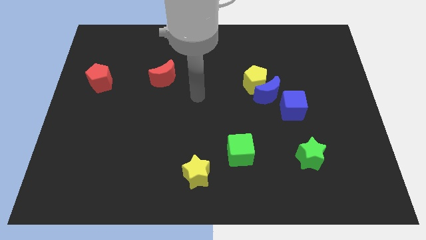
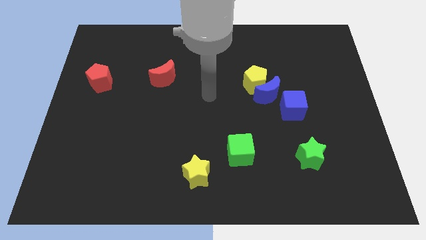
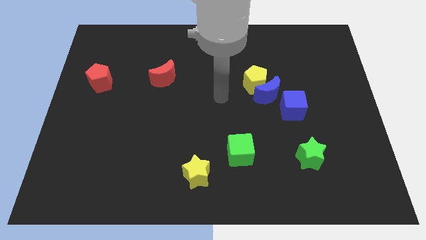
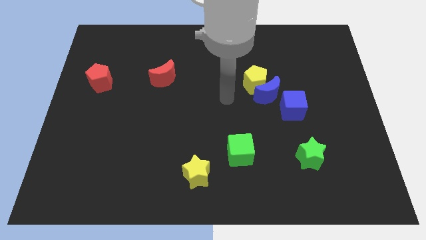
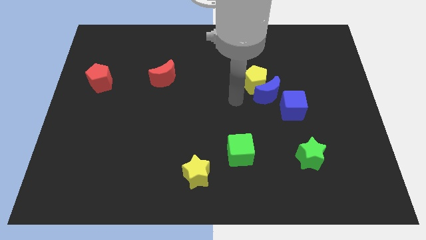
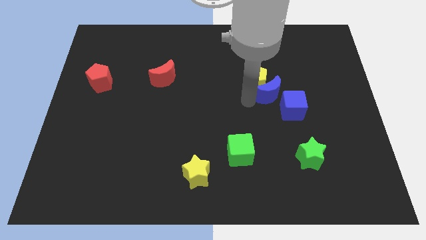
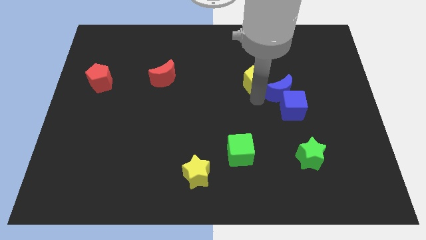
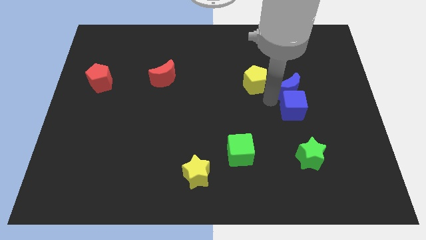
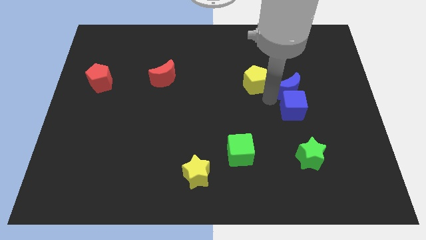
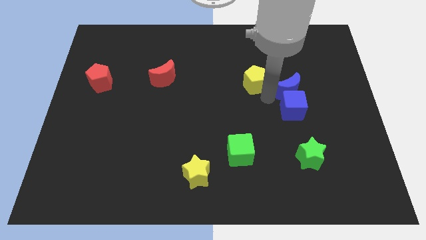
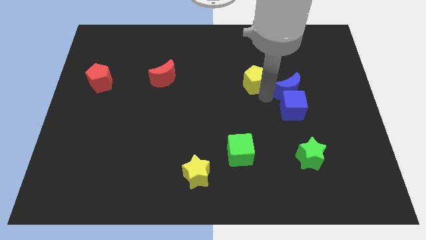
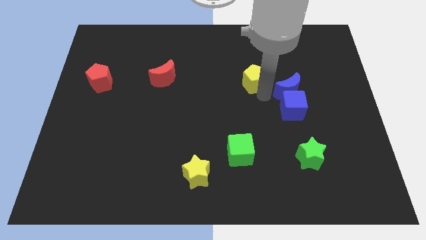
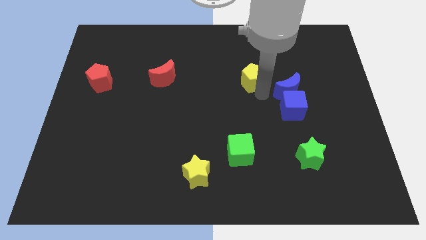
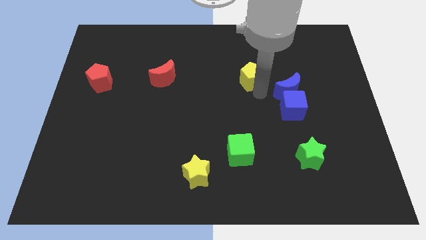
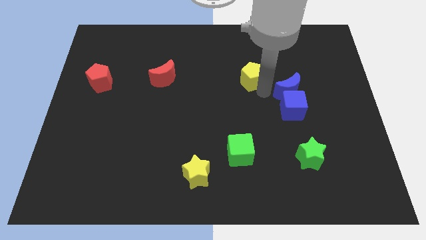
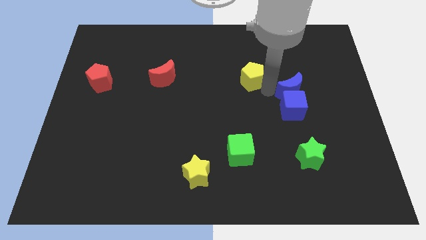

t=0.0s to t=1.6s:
separate the yellow pentagon from the blue moon

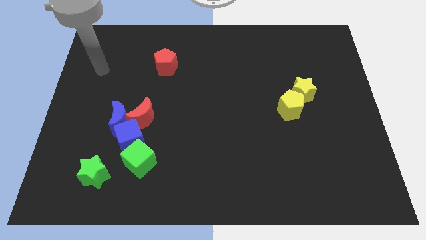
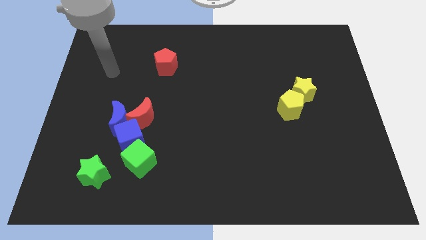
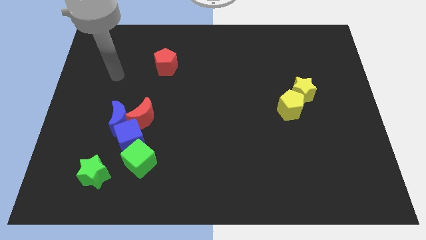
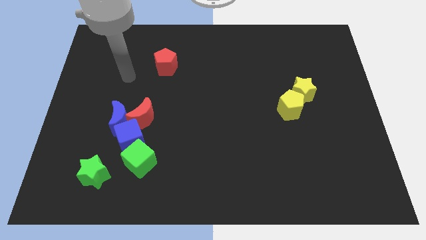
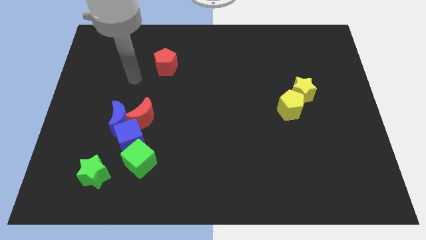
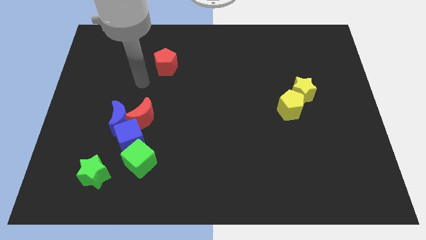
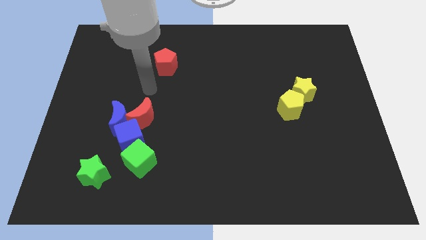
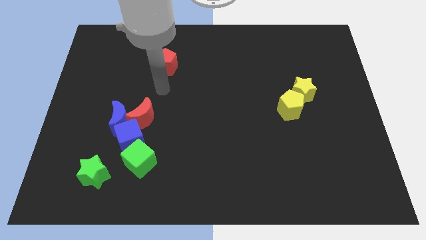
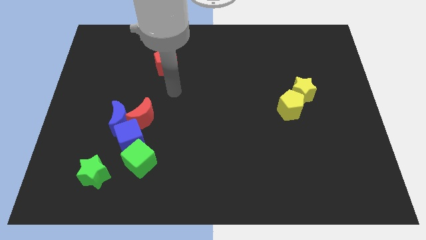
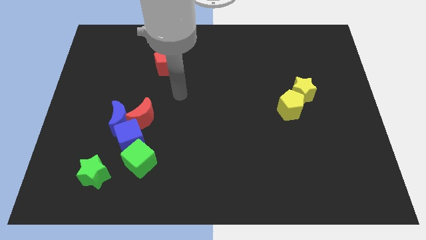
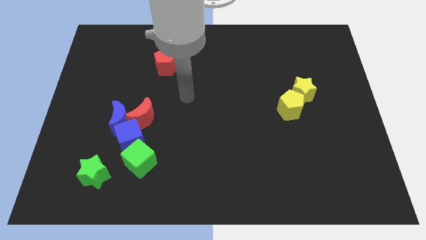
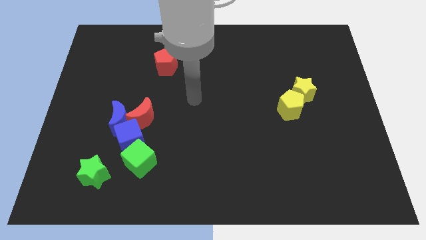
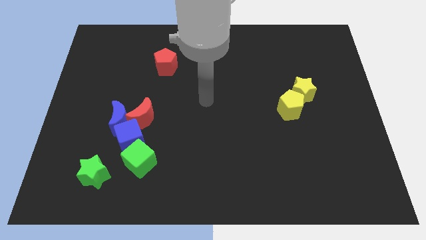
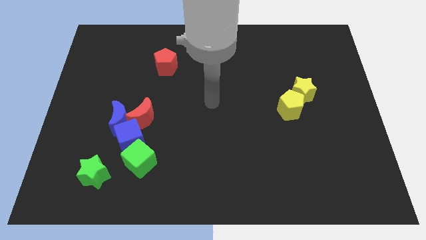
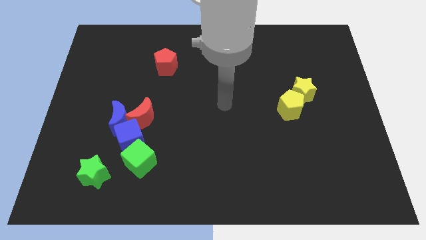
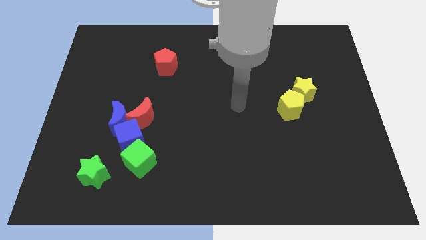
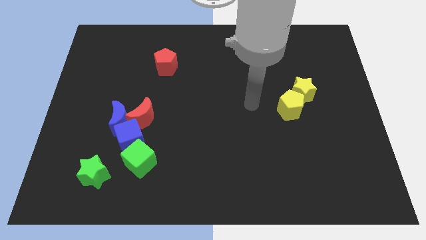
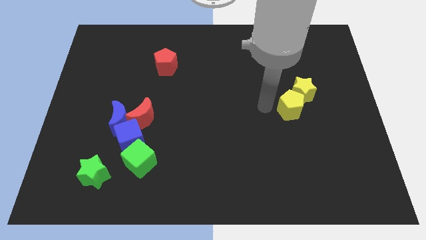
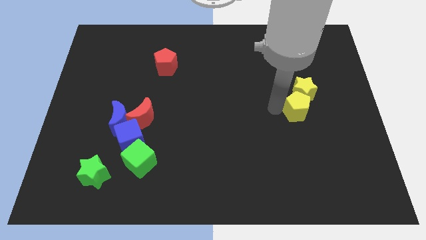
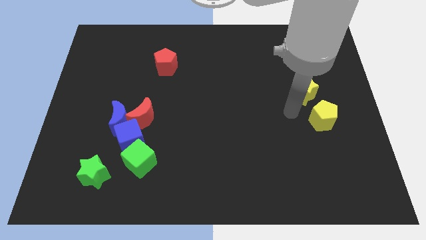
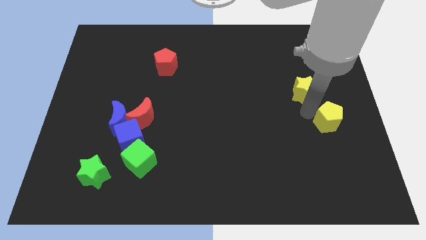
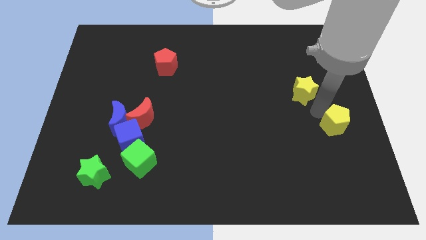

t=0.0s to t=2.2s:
pull the yellow star apart from the yellow pentagon

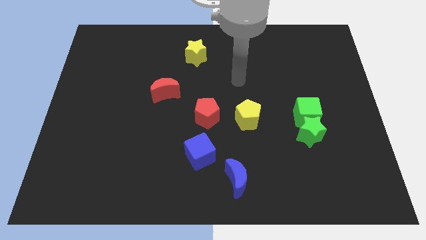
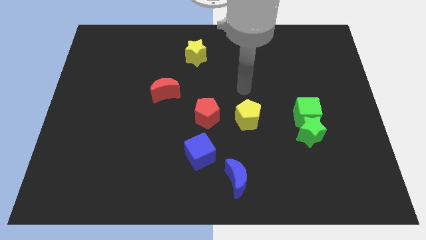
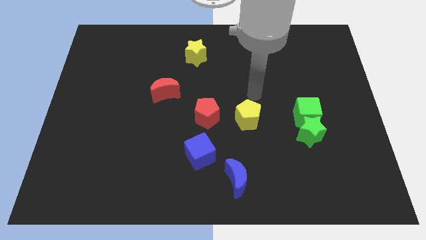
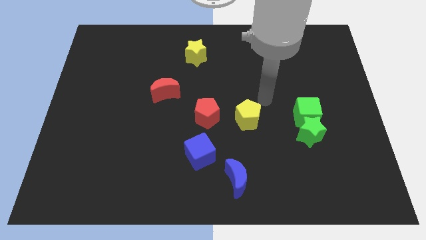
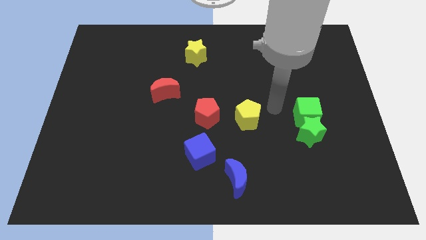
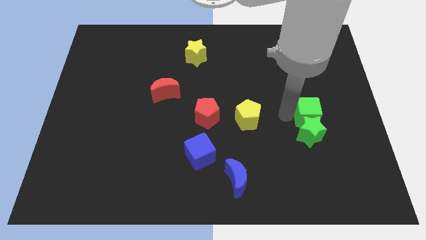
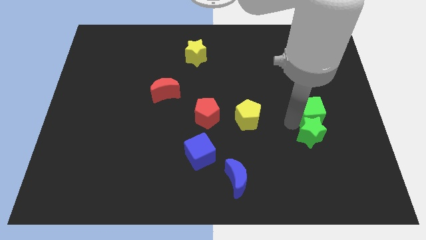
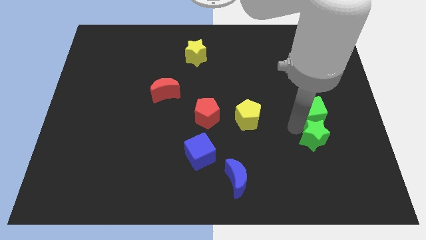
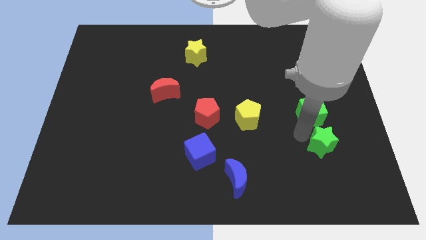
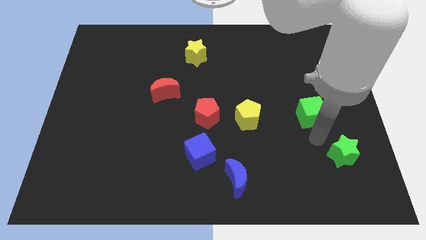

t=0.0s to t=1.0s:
separate the green cube from the green star

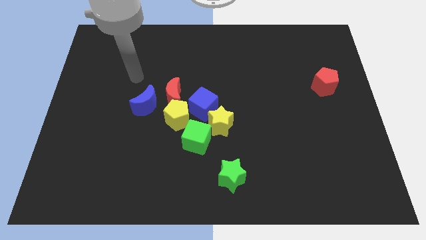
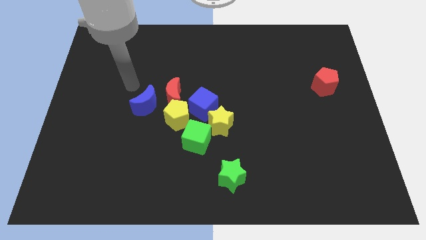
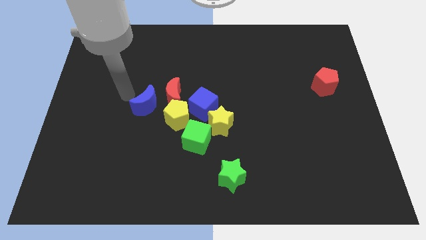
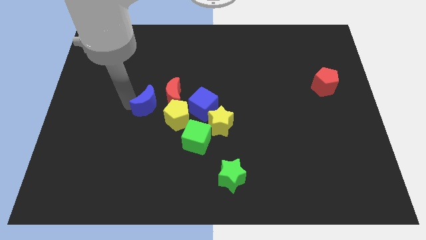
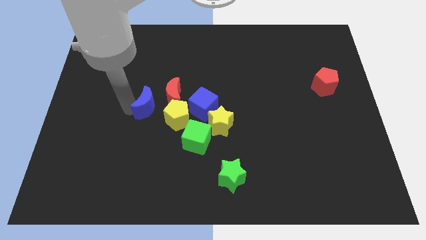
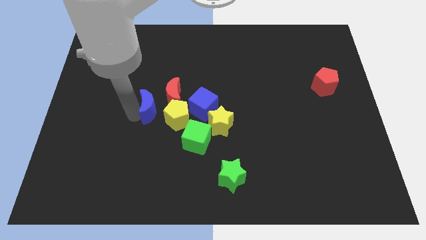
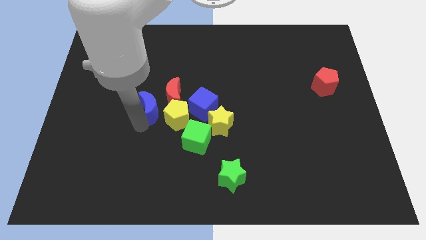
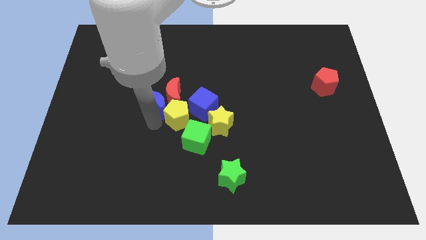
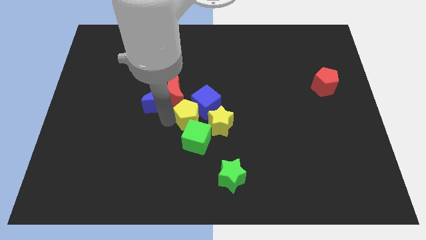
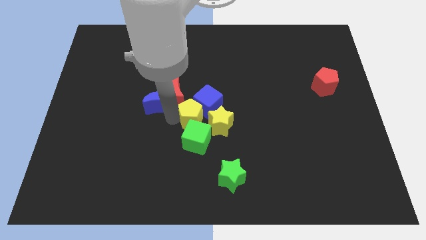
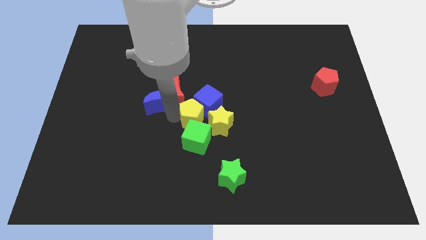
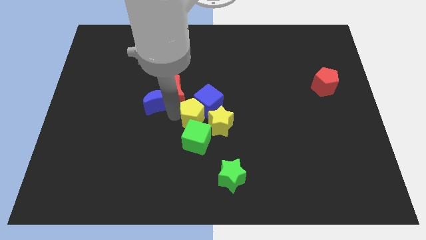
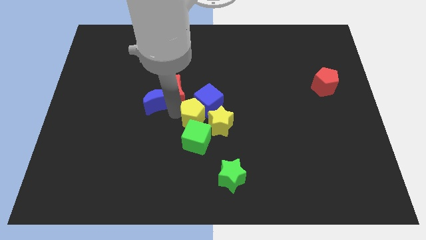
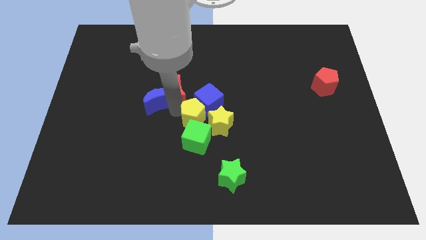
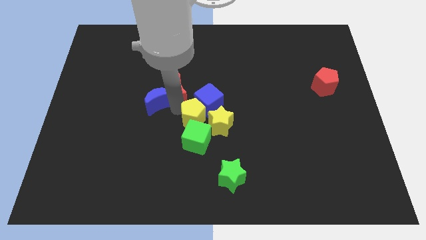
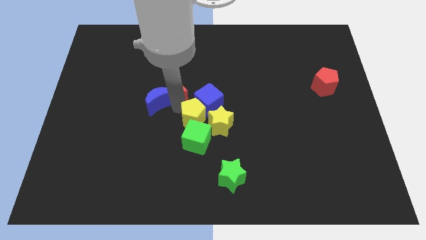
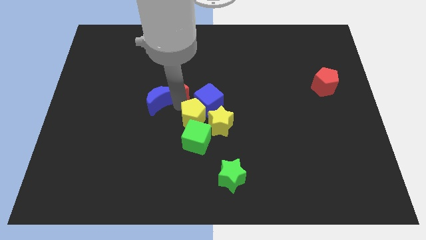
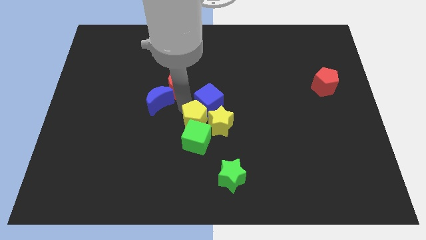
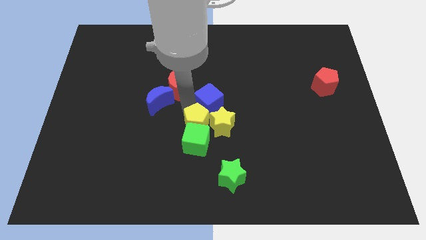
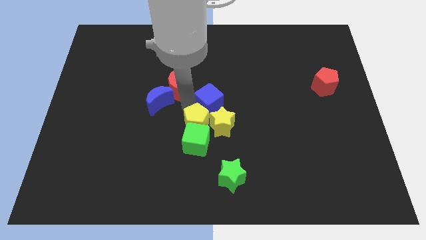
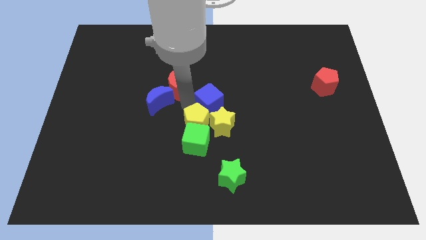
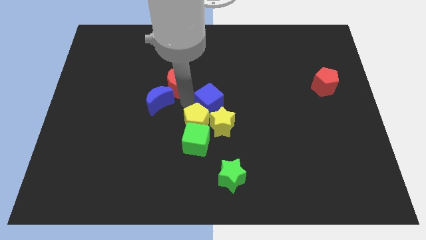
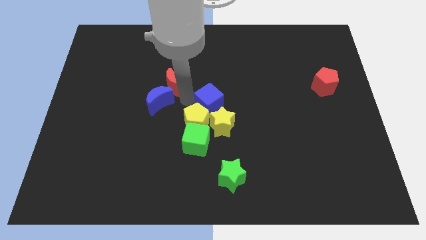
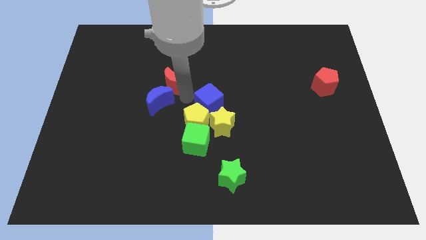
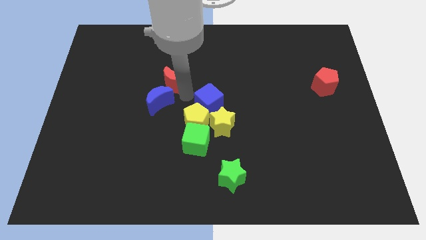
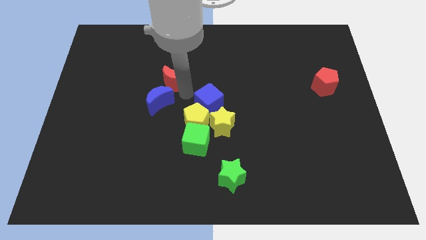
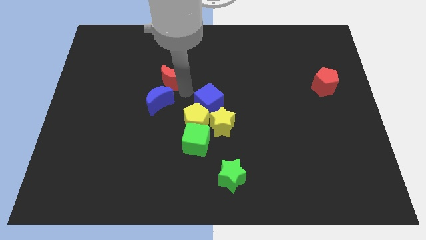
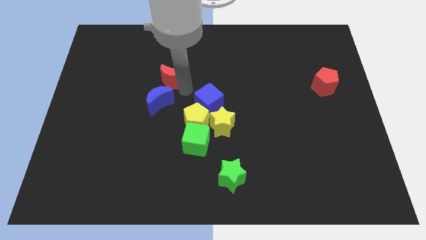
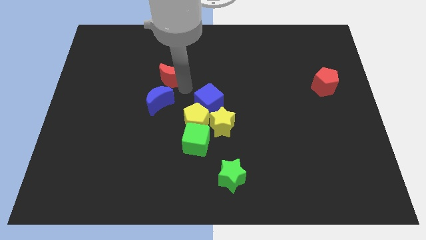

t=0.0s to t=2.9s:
separate the red moon from the yellow pentagon, blue moon, and blue cube

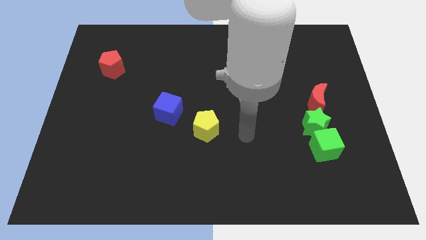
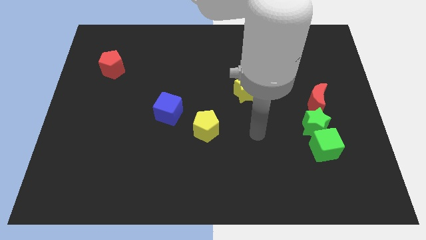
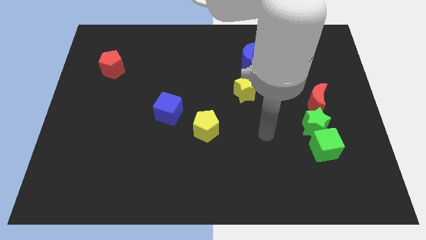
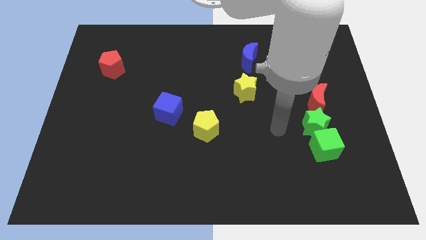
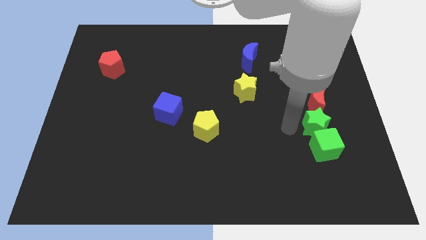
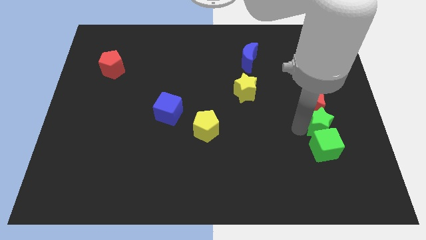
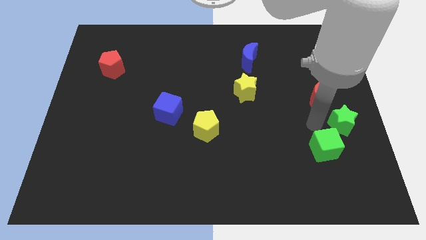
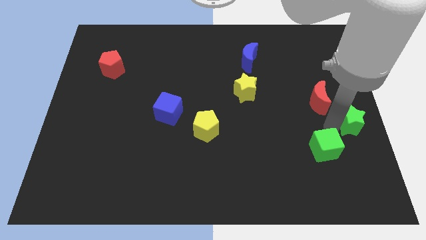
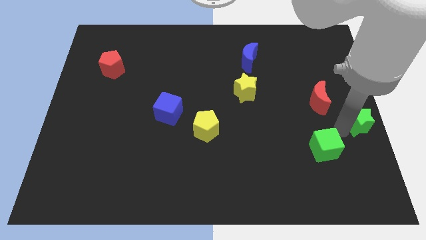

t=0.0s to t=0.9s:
pull the green cube apart from the green star

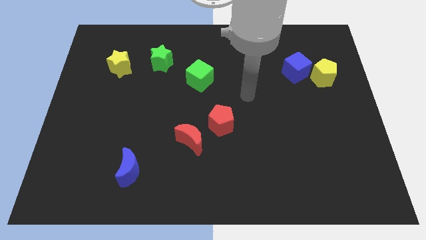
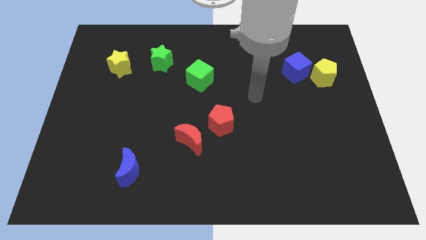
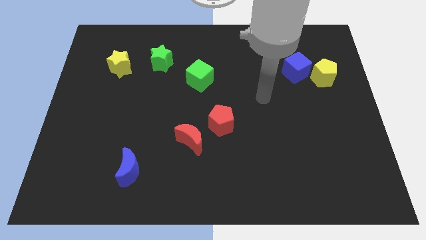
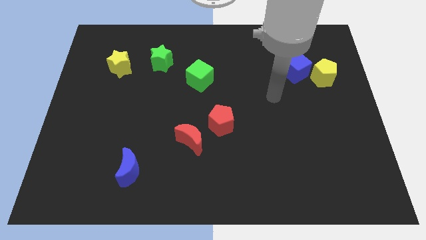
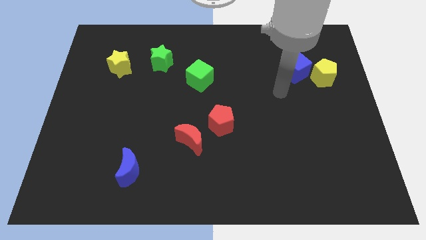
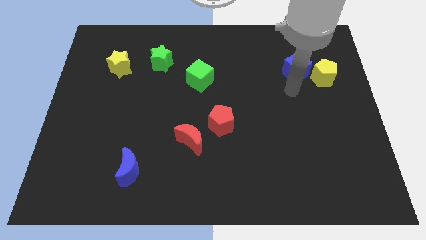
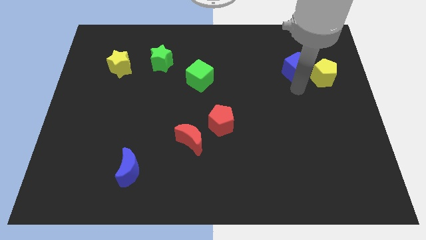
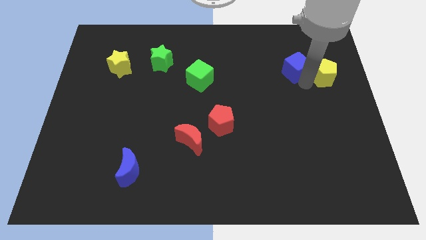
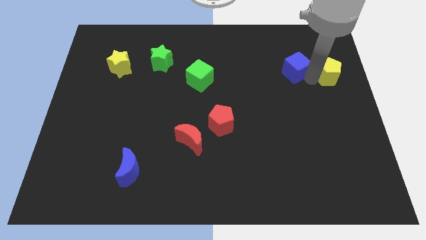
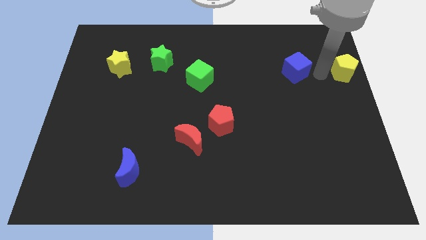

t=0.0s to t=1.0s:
move the blue cube away from the yellow pentagon
